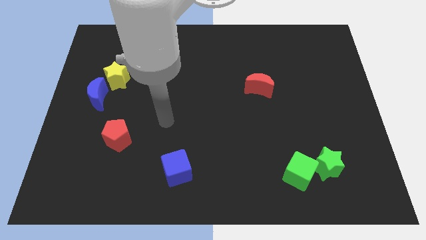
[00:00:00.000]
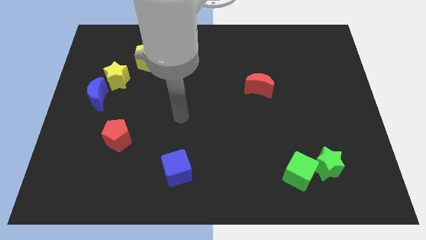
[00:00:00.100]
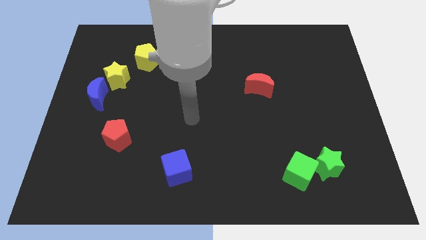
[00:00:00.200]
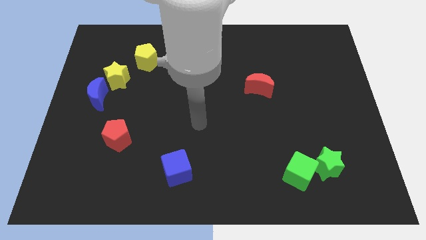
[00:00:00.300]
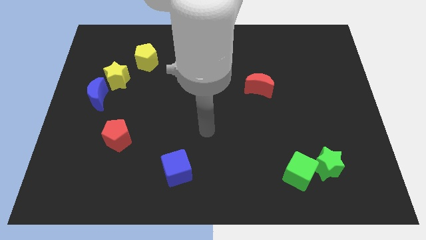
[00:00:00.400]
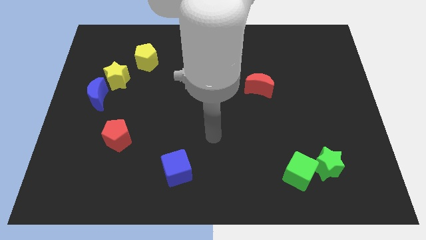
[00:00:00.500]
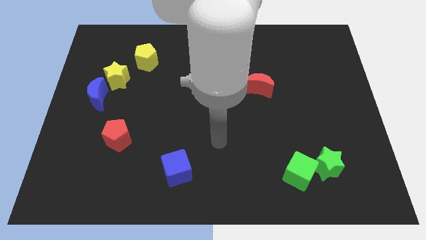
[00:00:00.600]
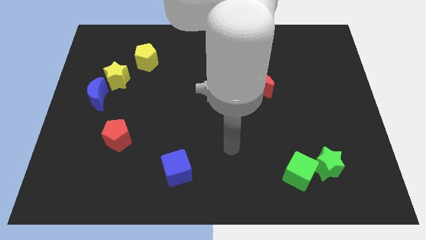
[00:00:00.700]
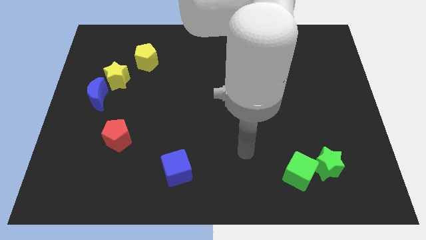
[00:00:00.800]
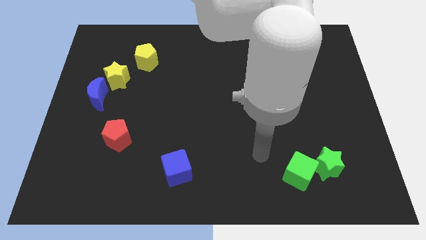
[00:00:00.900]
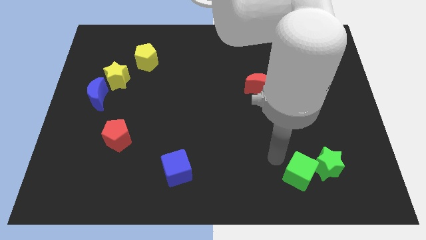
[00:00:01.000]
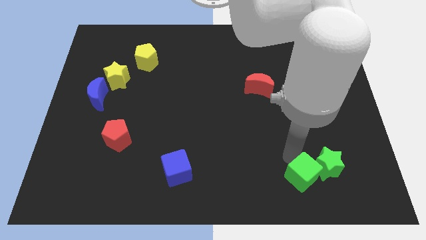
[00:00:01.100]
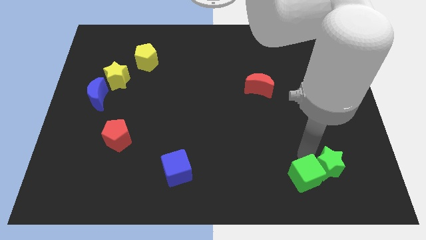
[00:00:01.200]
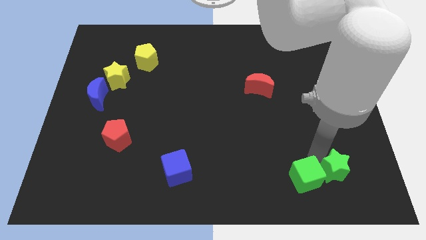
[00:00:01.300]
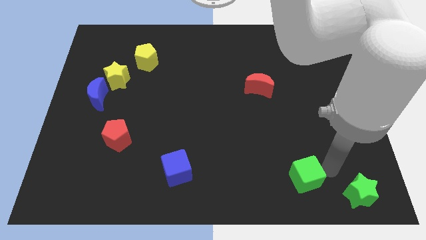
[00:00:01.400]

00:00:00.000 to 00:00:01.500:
move the green cube away from the green star

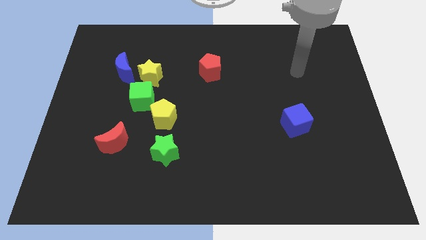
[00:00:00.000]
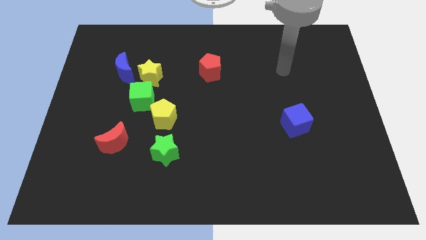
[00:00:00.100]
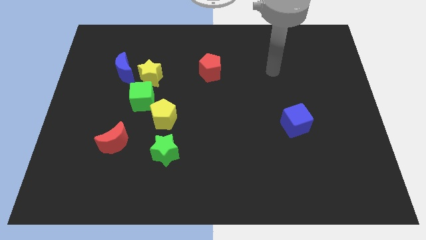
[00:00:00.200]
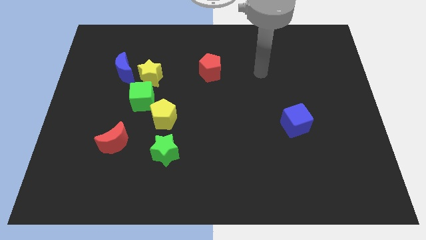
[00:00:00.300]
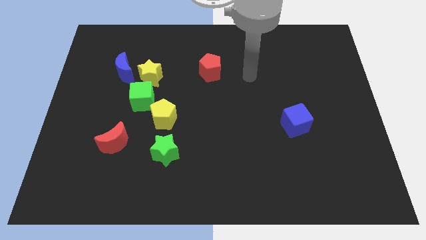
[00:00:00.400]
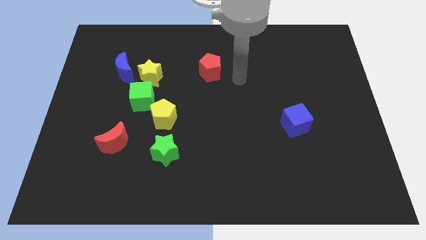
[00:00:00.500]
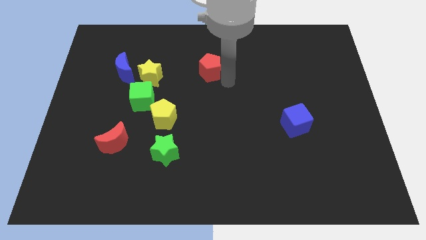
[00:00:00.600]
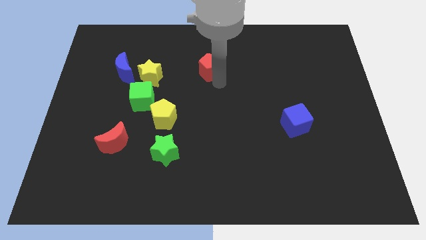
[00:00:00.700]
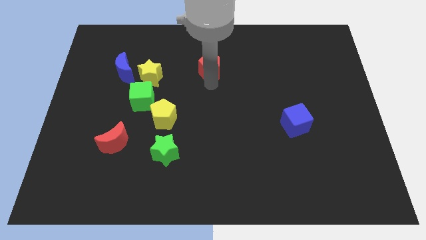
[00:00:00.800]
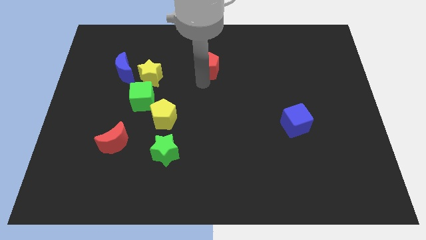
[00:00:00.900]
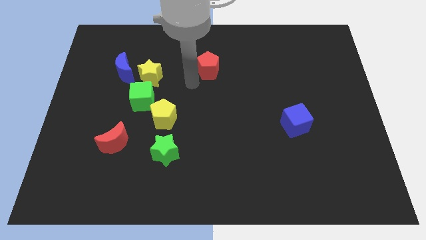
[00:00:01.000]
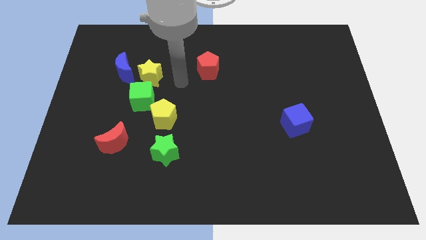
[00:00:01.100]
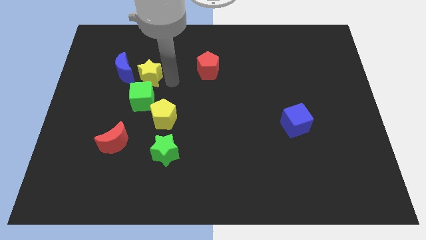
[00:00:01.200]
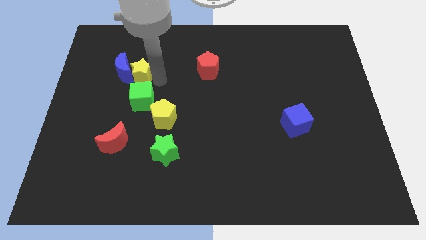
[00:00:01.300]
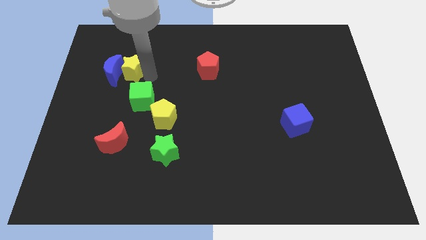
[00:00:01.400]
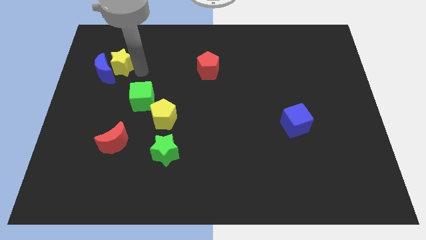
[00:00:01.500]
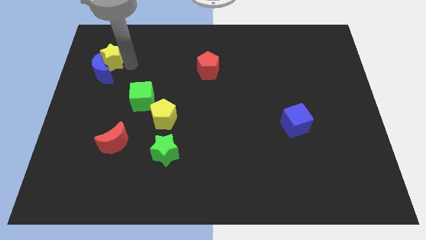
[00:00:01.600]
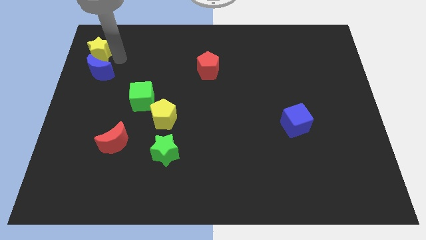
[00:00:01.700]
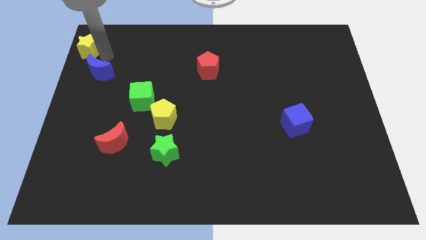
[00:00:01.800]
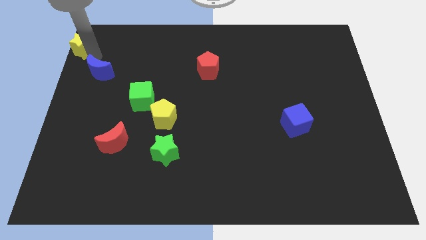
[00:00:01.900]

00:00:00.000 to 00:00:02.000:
move the blue moon away from the yellow star

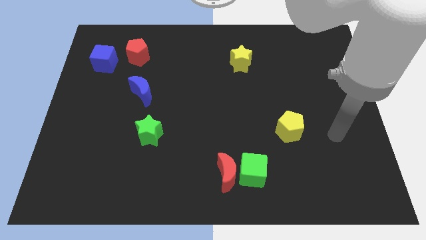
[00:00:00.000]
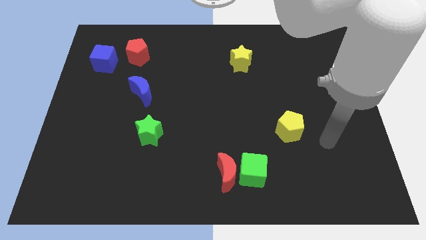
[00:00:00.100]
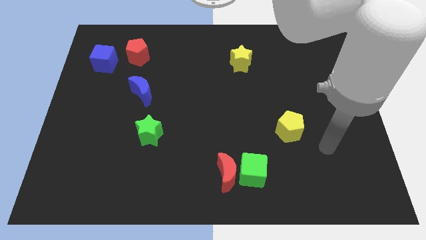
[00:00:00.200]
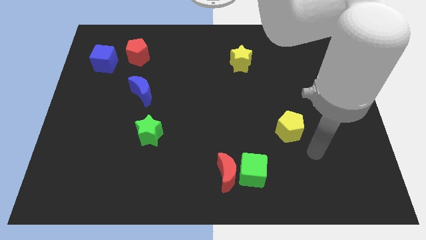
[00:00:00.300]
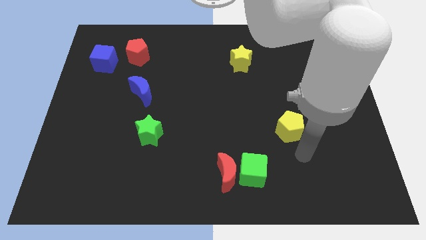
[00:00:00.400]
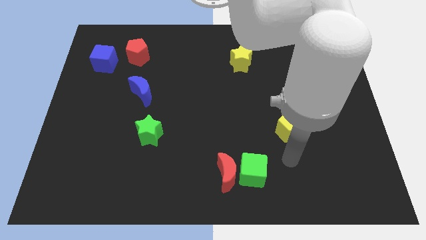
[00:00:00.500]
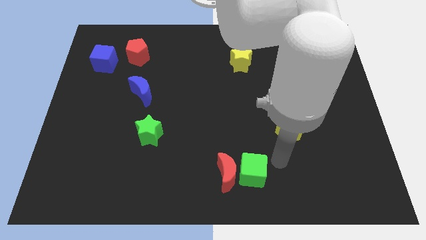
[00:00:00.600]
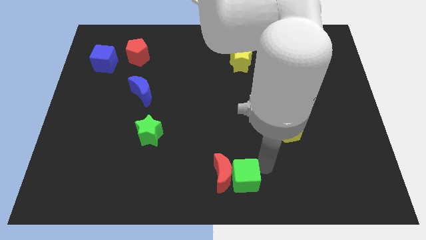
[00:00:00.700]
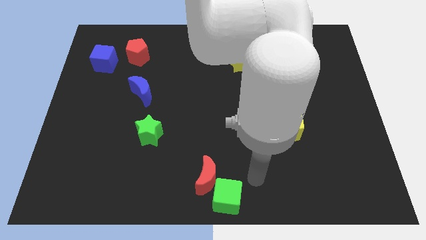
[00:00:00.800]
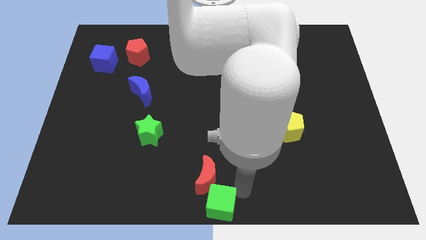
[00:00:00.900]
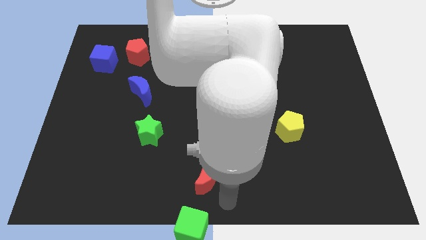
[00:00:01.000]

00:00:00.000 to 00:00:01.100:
pull the red moon apart from the green cube

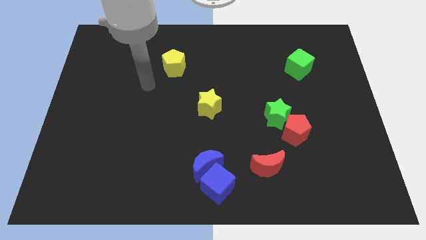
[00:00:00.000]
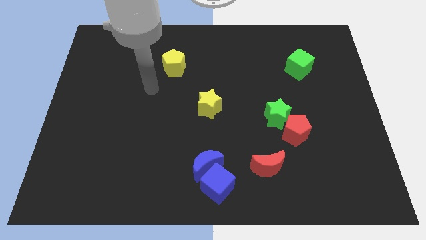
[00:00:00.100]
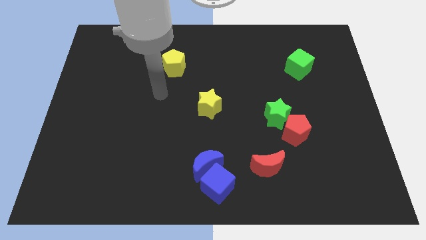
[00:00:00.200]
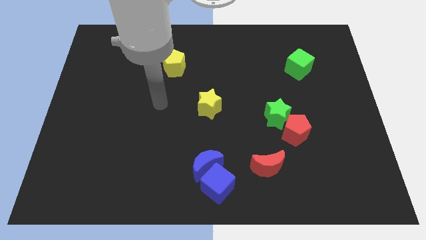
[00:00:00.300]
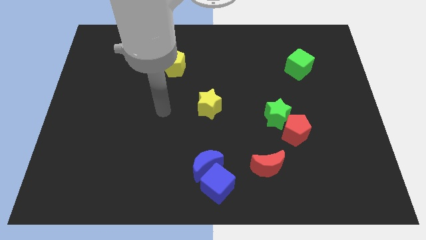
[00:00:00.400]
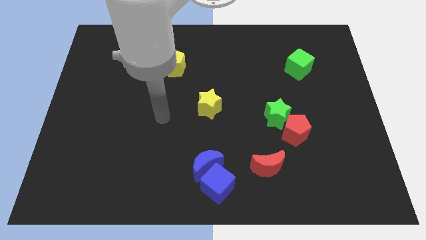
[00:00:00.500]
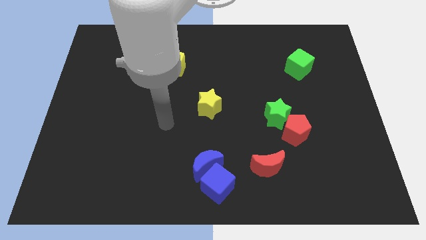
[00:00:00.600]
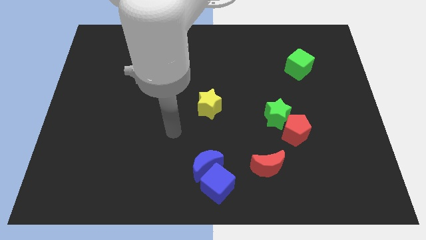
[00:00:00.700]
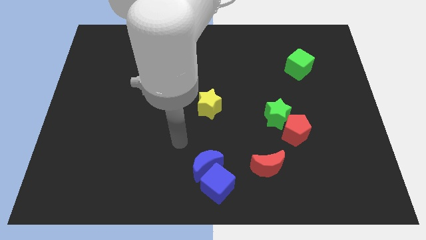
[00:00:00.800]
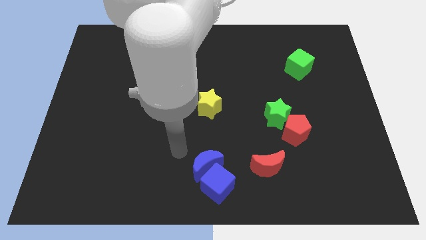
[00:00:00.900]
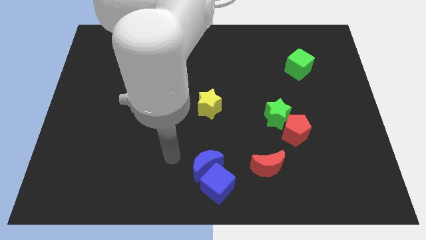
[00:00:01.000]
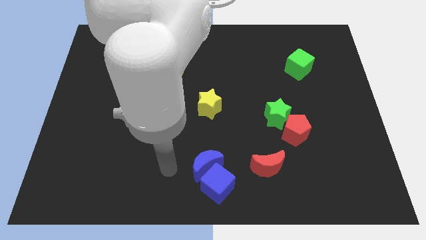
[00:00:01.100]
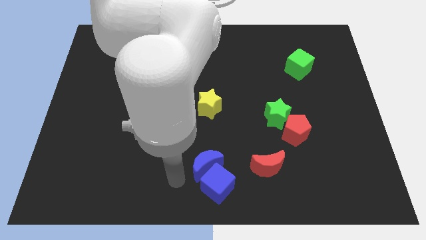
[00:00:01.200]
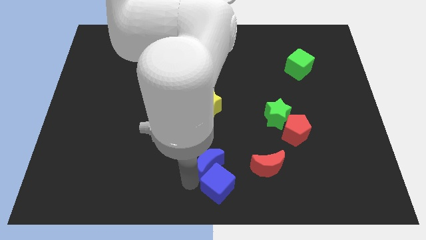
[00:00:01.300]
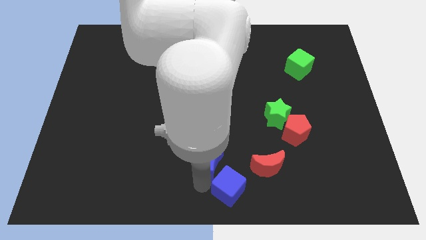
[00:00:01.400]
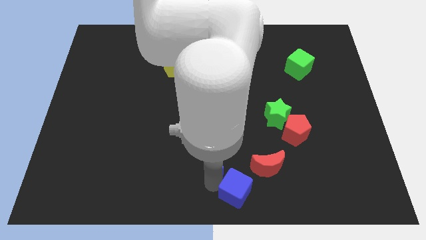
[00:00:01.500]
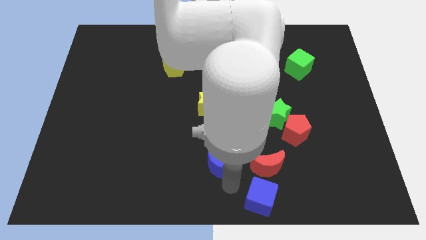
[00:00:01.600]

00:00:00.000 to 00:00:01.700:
pull the blue moon apart from the blue cube

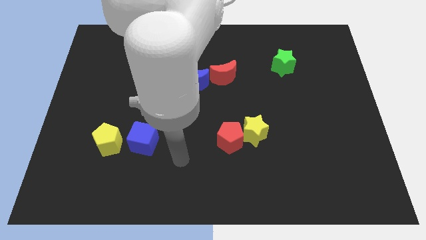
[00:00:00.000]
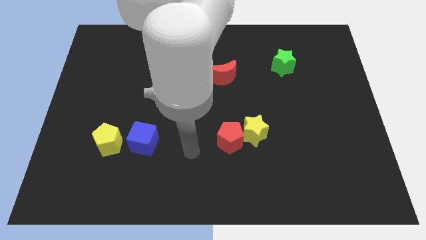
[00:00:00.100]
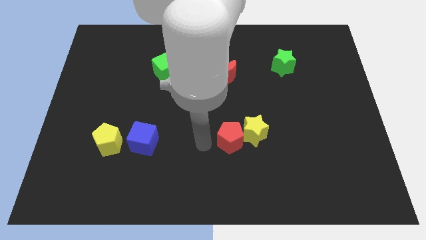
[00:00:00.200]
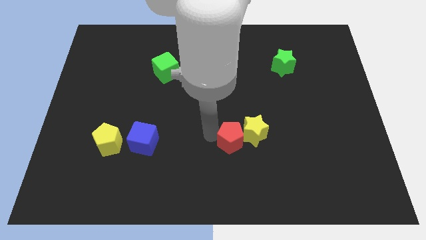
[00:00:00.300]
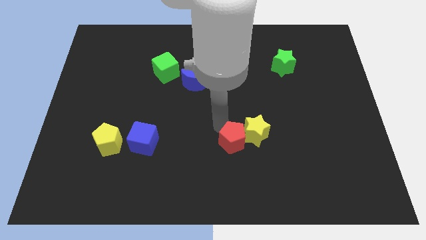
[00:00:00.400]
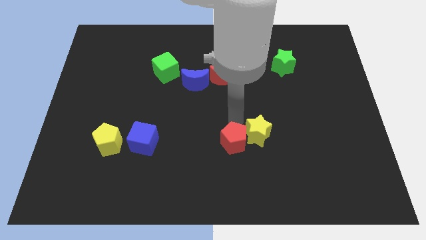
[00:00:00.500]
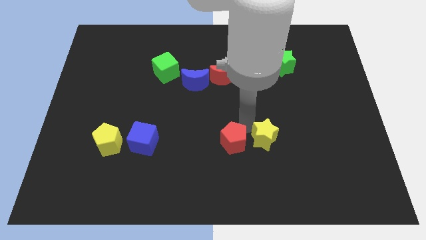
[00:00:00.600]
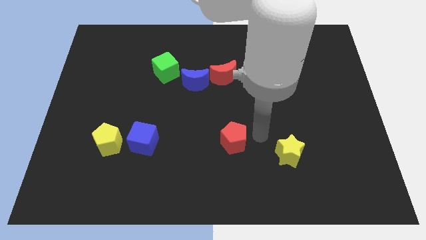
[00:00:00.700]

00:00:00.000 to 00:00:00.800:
pull the red pentagon apart from the yellow star

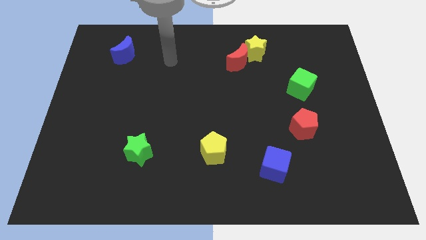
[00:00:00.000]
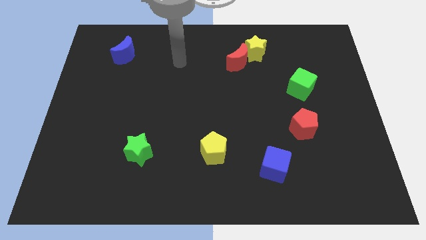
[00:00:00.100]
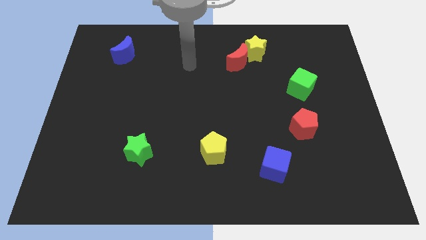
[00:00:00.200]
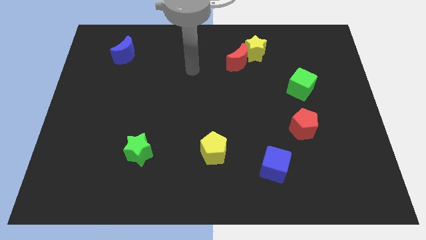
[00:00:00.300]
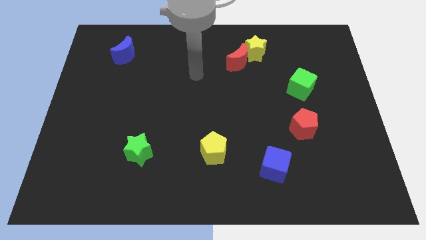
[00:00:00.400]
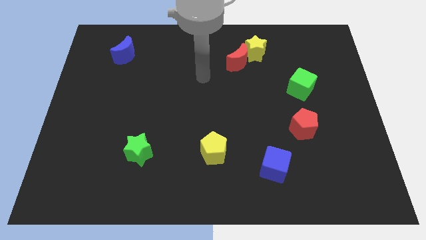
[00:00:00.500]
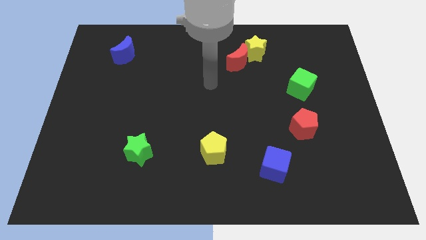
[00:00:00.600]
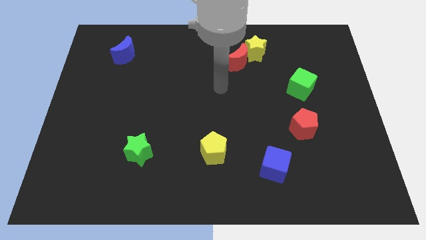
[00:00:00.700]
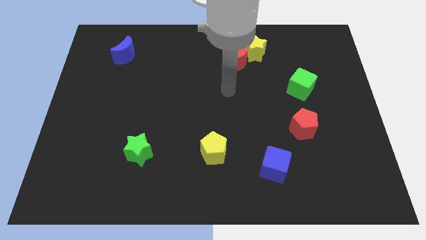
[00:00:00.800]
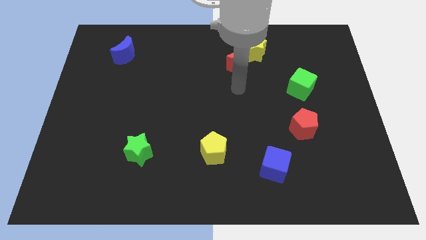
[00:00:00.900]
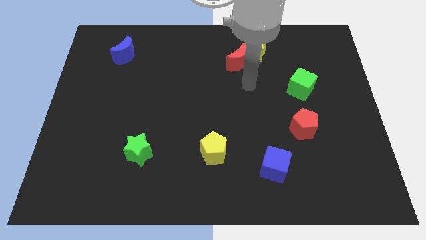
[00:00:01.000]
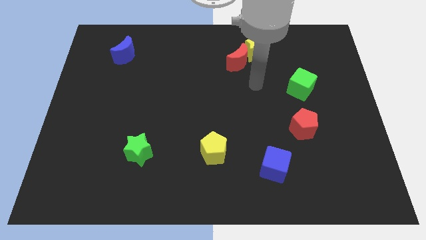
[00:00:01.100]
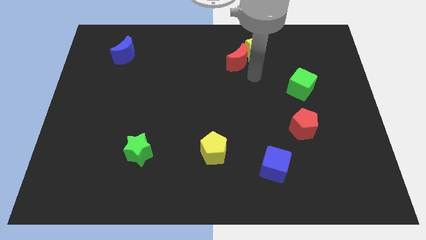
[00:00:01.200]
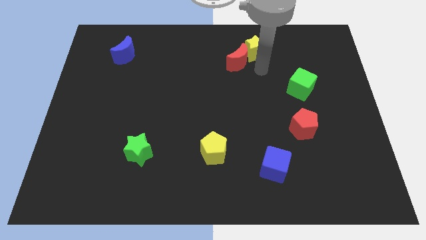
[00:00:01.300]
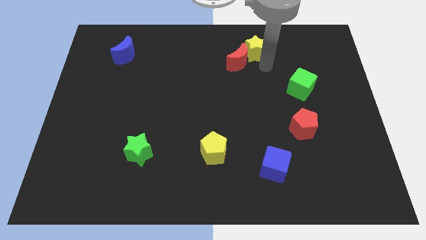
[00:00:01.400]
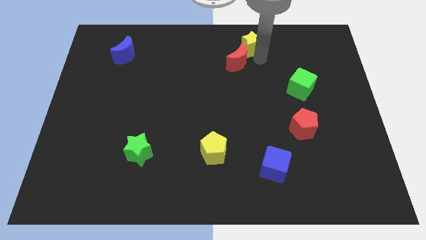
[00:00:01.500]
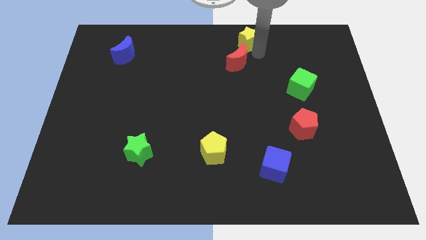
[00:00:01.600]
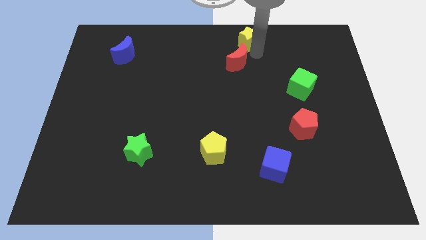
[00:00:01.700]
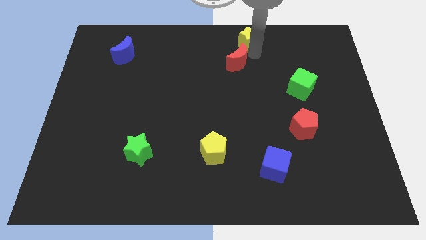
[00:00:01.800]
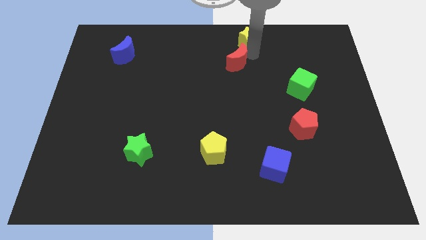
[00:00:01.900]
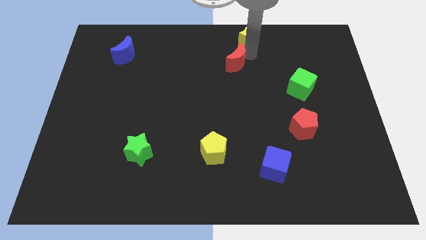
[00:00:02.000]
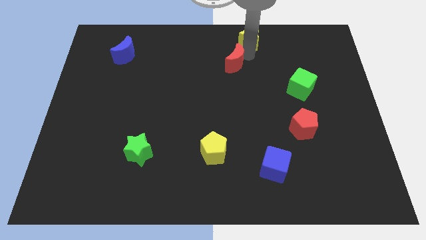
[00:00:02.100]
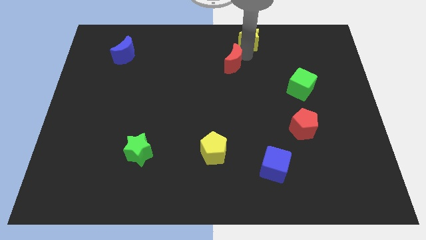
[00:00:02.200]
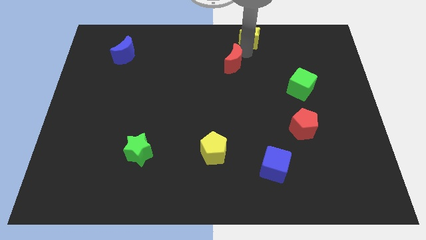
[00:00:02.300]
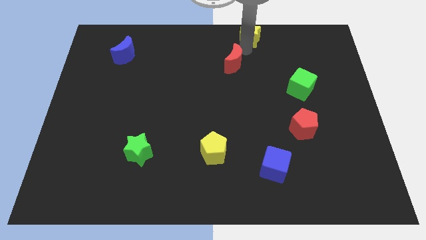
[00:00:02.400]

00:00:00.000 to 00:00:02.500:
separate the red moon from the yellow star
